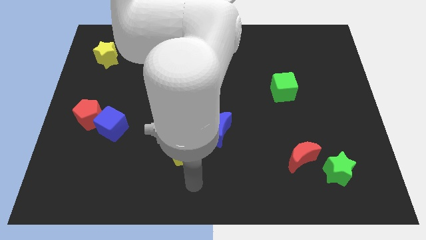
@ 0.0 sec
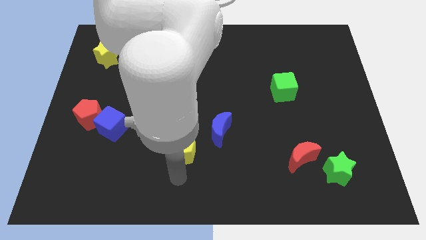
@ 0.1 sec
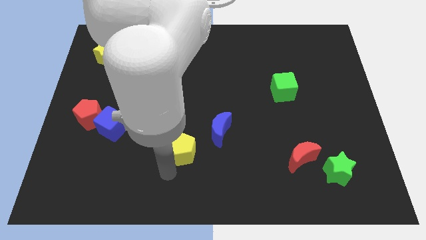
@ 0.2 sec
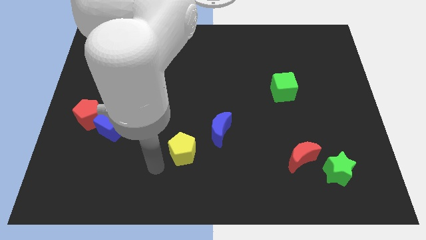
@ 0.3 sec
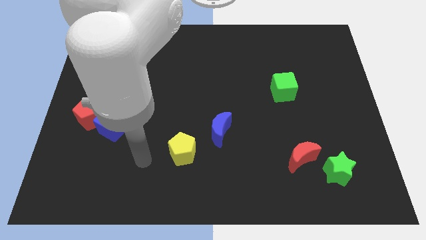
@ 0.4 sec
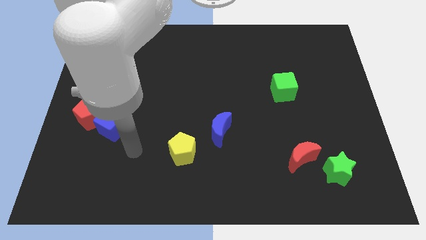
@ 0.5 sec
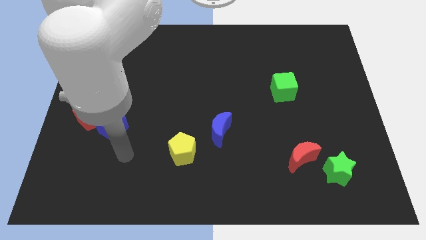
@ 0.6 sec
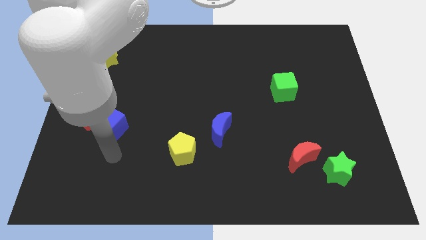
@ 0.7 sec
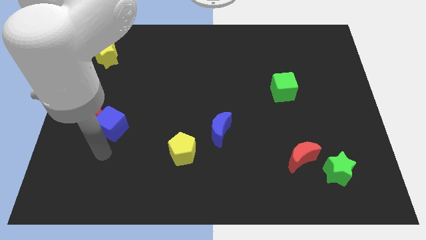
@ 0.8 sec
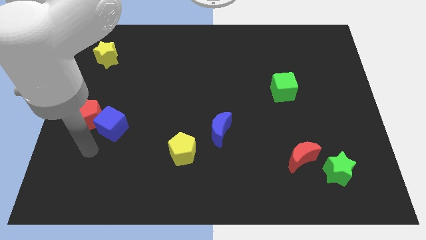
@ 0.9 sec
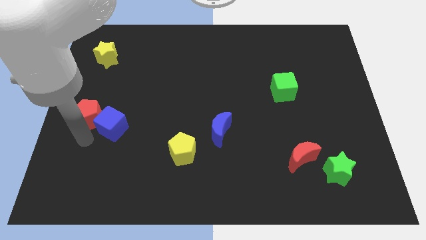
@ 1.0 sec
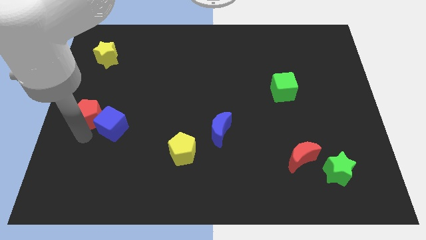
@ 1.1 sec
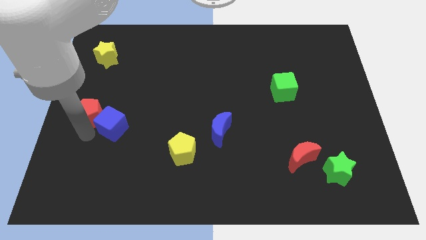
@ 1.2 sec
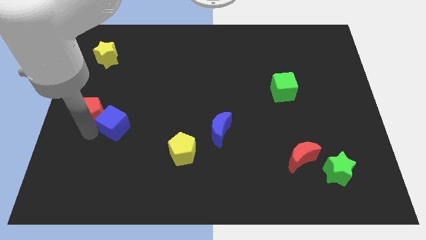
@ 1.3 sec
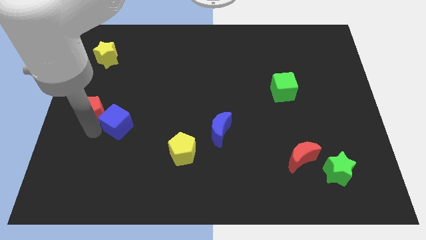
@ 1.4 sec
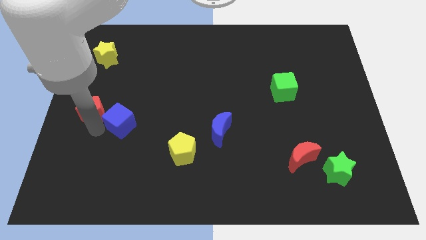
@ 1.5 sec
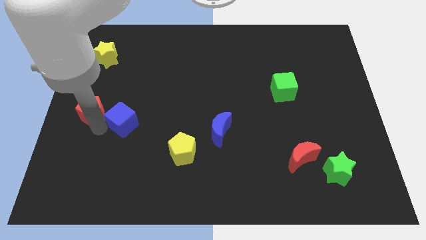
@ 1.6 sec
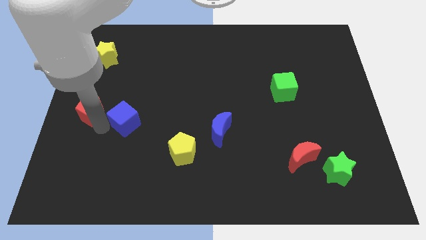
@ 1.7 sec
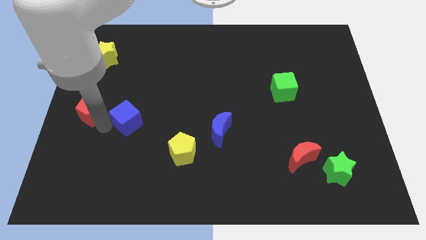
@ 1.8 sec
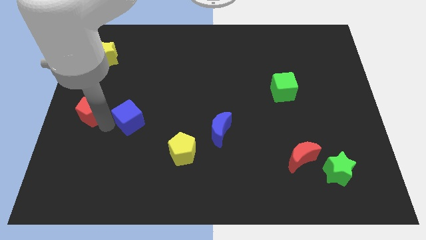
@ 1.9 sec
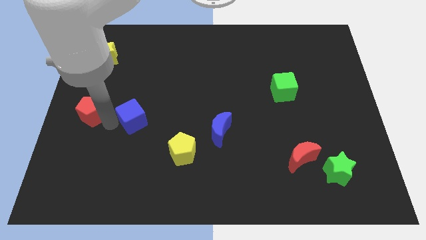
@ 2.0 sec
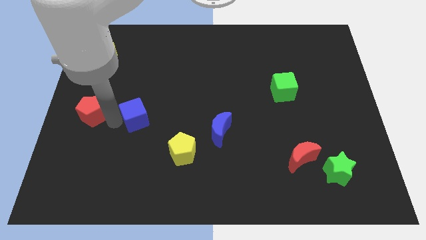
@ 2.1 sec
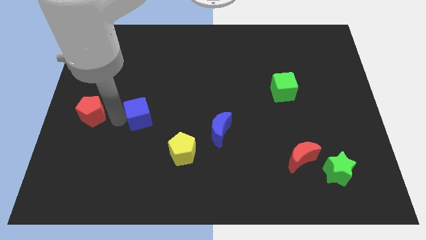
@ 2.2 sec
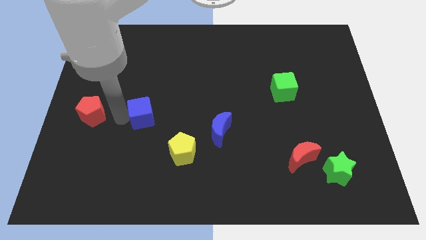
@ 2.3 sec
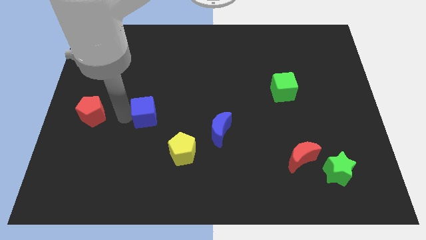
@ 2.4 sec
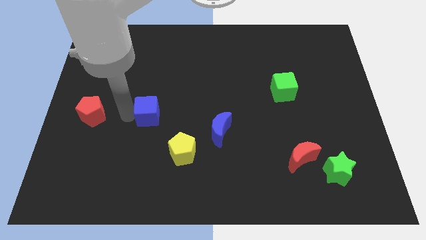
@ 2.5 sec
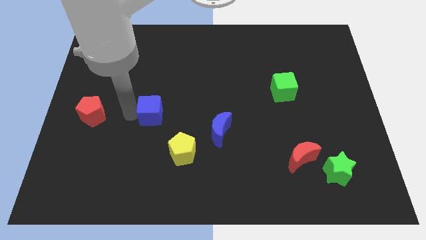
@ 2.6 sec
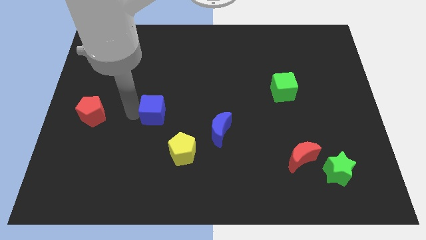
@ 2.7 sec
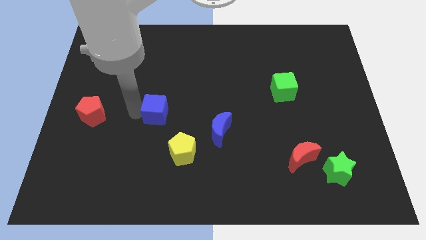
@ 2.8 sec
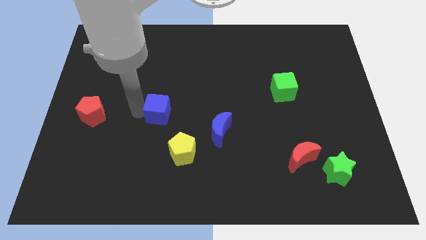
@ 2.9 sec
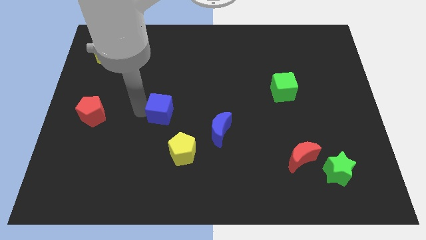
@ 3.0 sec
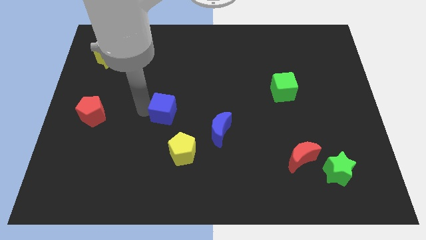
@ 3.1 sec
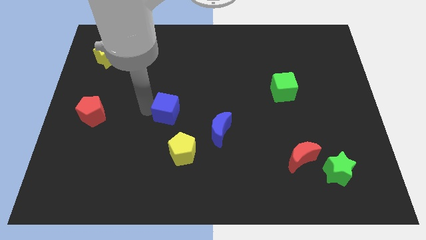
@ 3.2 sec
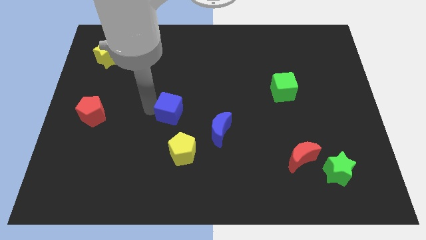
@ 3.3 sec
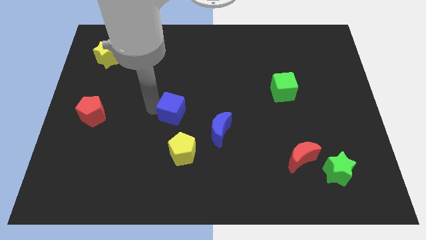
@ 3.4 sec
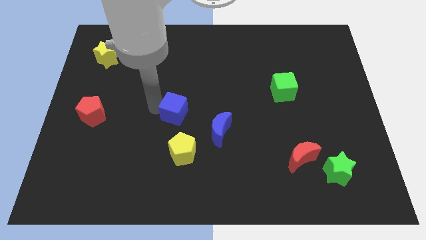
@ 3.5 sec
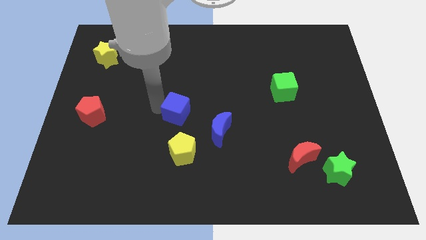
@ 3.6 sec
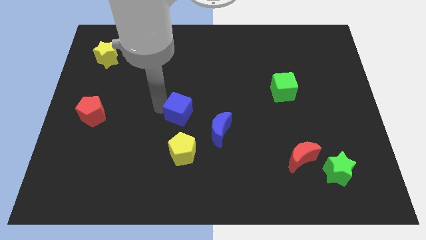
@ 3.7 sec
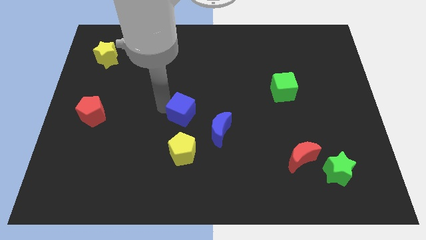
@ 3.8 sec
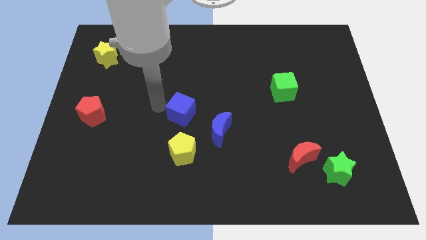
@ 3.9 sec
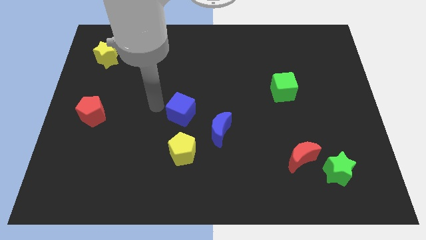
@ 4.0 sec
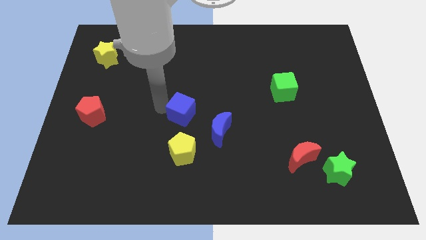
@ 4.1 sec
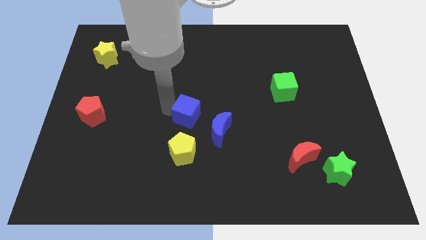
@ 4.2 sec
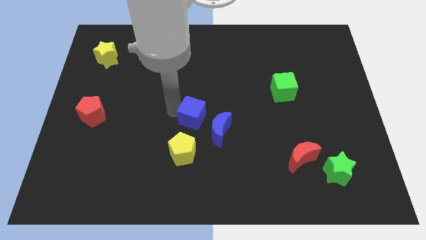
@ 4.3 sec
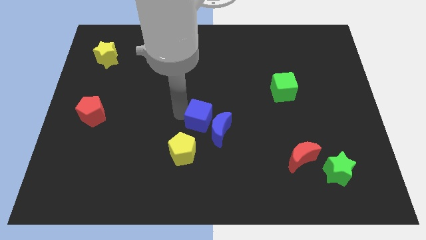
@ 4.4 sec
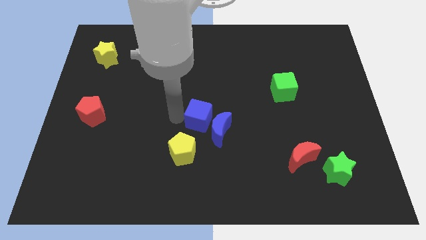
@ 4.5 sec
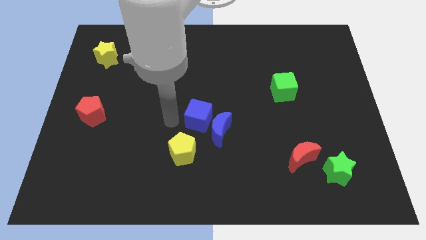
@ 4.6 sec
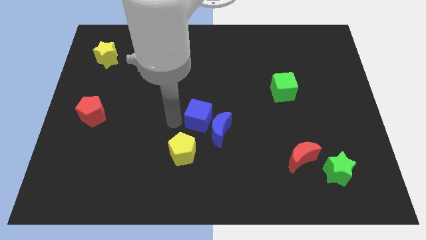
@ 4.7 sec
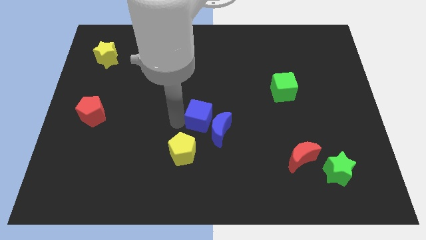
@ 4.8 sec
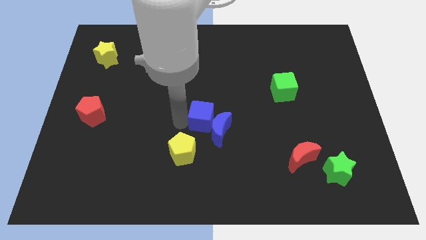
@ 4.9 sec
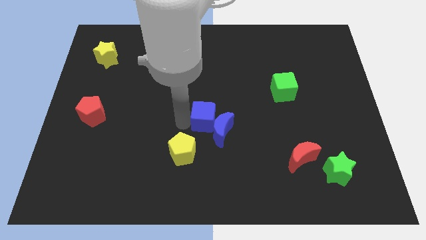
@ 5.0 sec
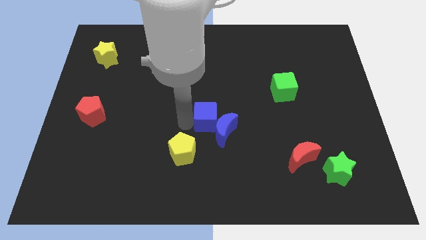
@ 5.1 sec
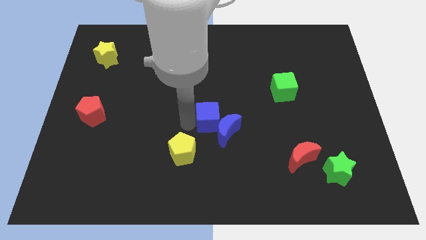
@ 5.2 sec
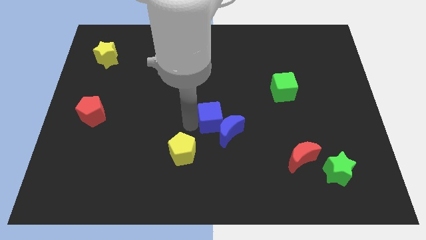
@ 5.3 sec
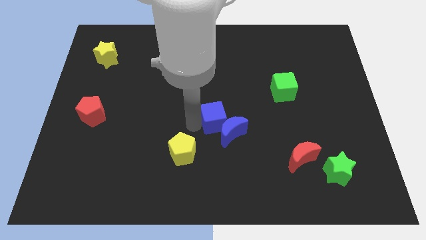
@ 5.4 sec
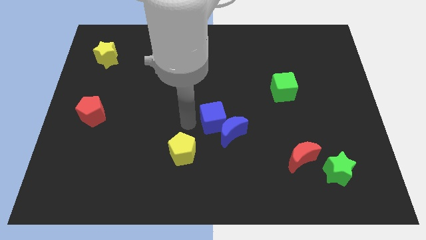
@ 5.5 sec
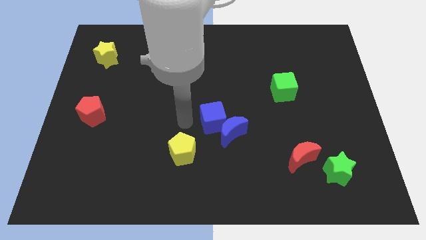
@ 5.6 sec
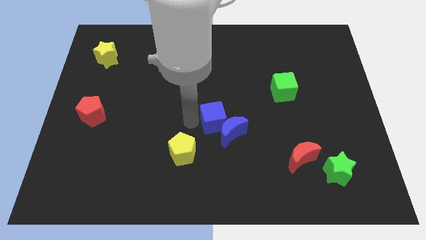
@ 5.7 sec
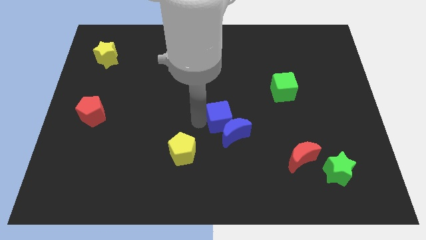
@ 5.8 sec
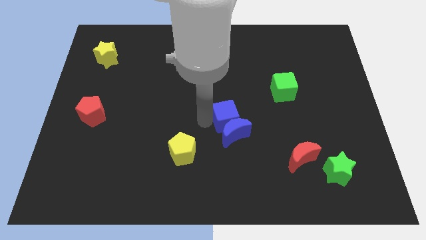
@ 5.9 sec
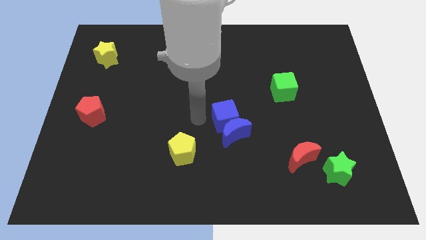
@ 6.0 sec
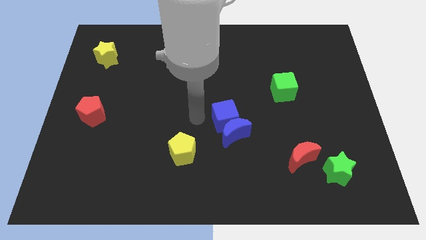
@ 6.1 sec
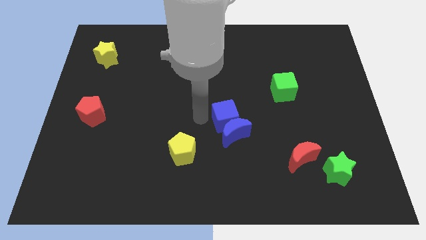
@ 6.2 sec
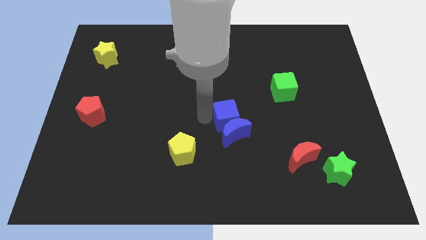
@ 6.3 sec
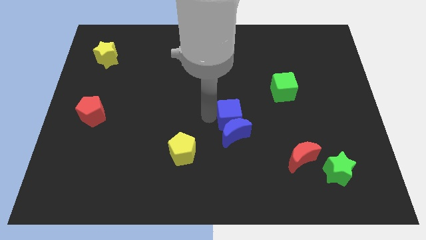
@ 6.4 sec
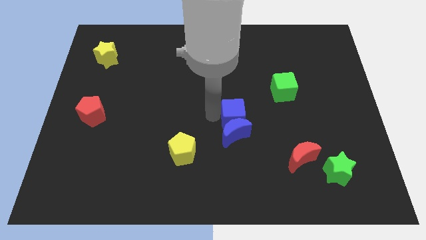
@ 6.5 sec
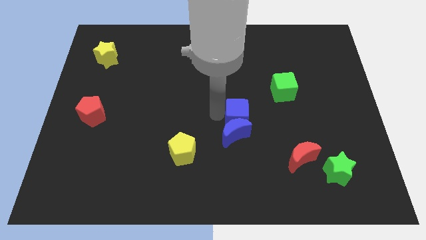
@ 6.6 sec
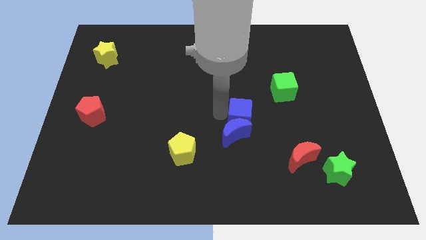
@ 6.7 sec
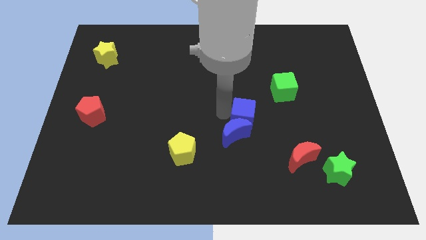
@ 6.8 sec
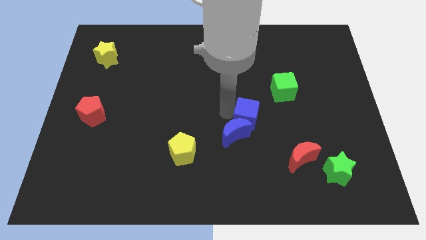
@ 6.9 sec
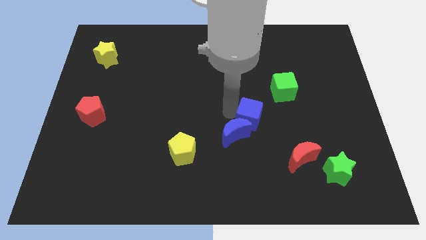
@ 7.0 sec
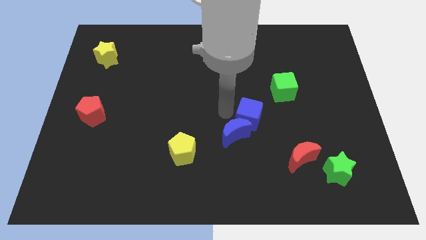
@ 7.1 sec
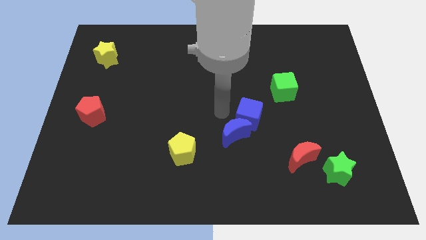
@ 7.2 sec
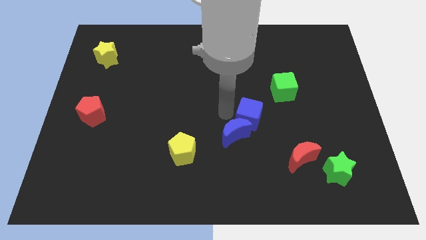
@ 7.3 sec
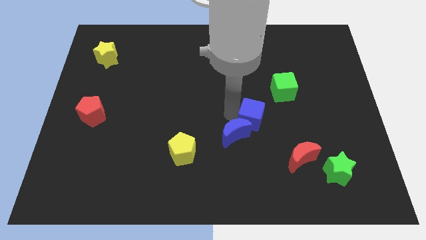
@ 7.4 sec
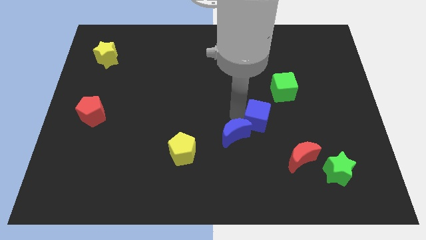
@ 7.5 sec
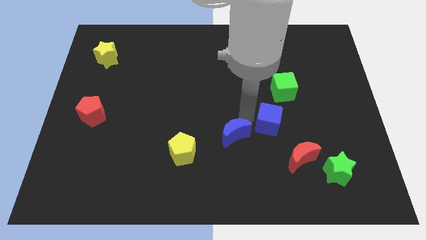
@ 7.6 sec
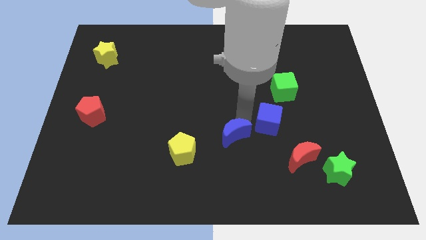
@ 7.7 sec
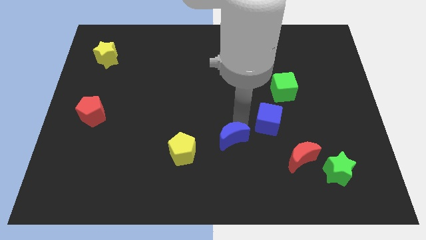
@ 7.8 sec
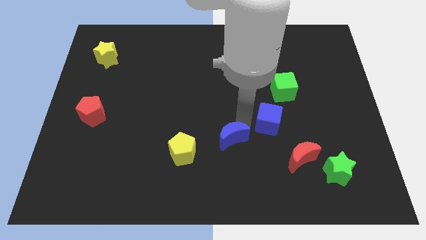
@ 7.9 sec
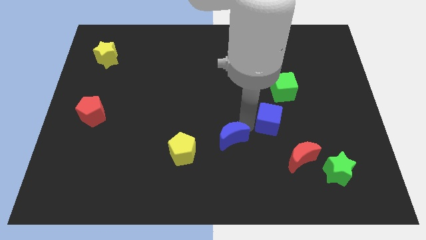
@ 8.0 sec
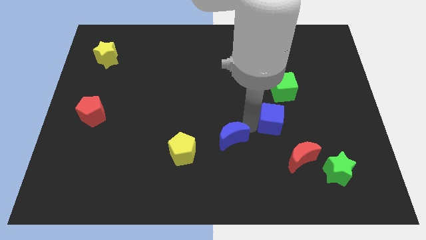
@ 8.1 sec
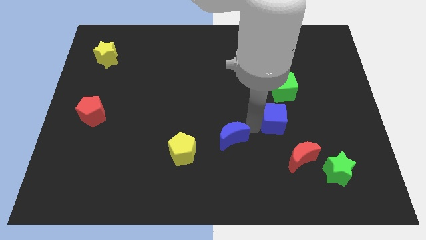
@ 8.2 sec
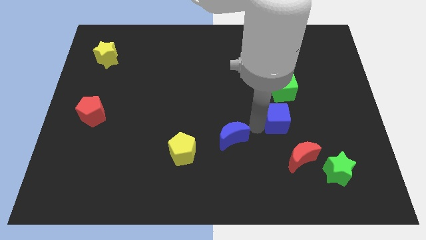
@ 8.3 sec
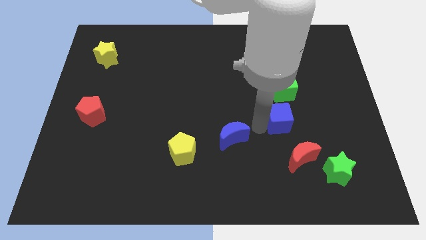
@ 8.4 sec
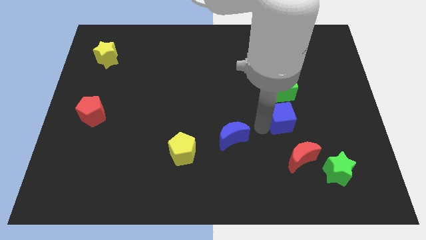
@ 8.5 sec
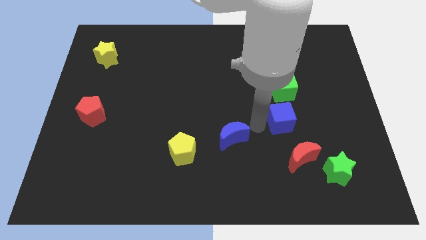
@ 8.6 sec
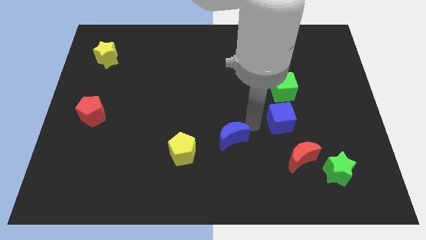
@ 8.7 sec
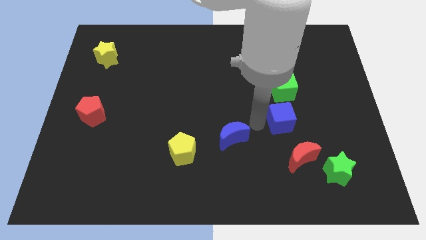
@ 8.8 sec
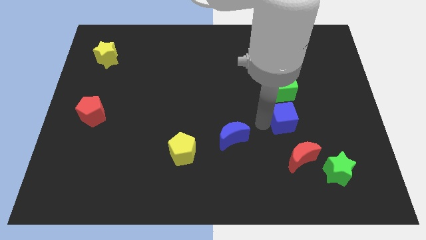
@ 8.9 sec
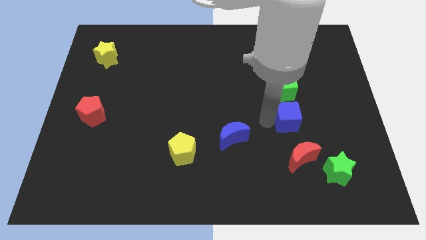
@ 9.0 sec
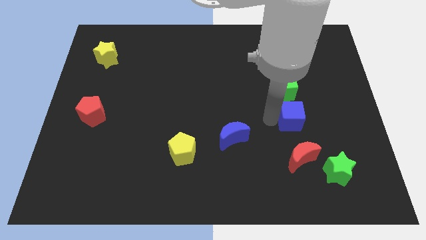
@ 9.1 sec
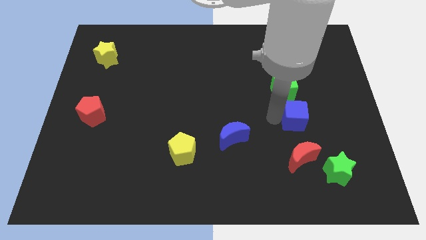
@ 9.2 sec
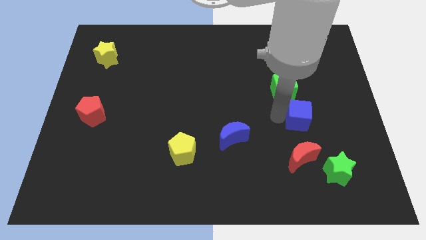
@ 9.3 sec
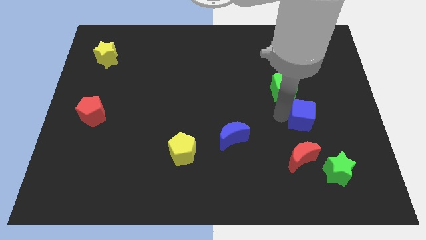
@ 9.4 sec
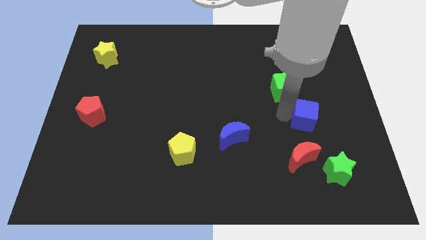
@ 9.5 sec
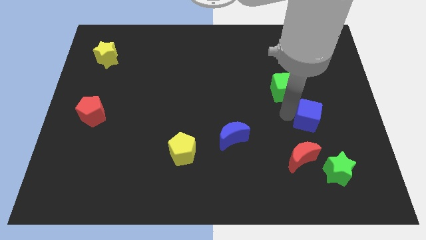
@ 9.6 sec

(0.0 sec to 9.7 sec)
move the blue cube to the top side of the green star
